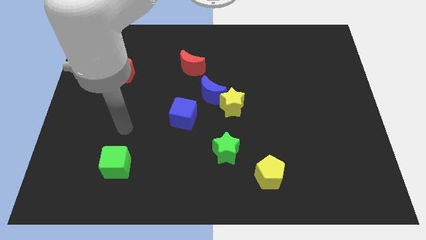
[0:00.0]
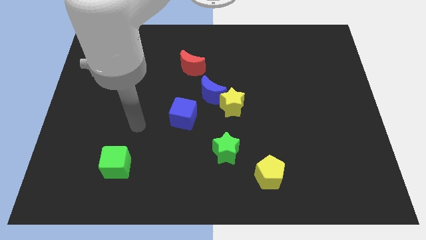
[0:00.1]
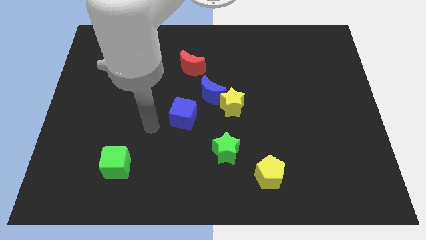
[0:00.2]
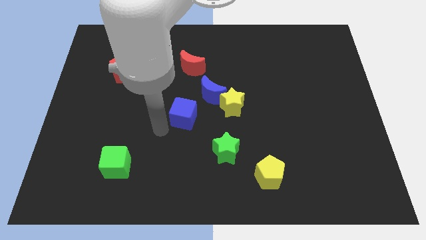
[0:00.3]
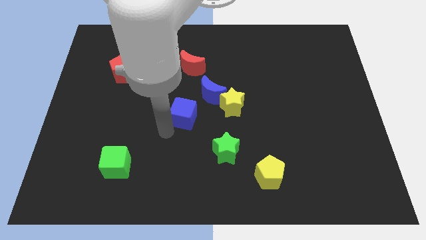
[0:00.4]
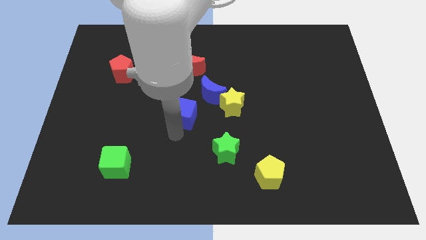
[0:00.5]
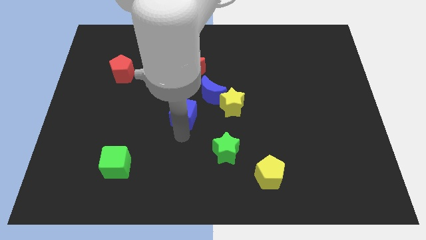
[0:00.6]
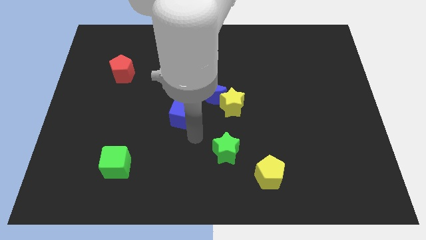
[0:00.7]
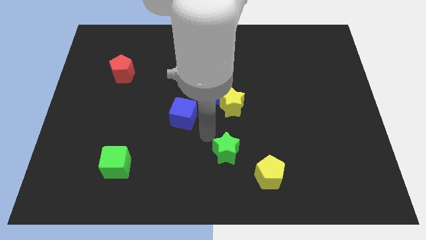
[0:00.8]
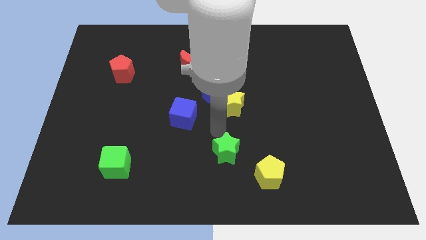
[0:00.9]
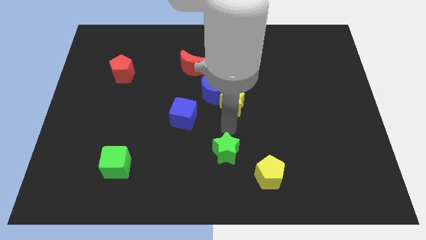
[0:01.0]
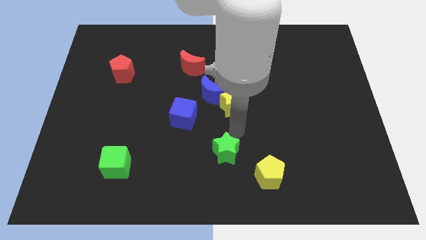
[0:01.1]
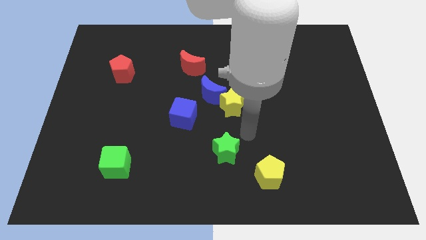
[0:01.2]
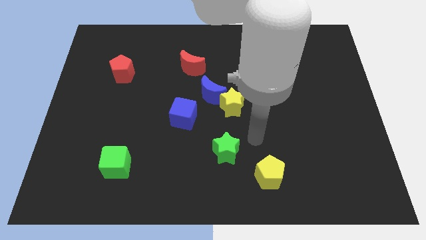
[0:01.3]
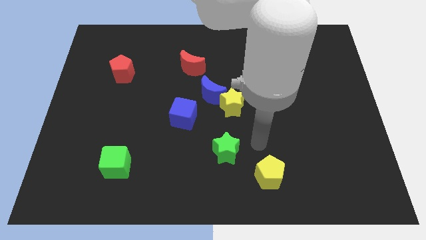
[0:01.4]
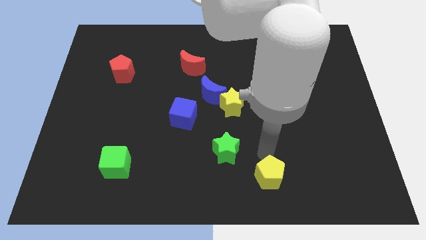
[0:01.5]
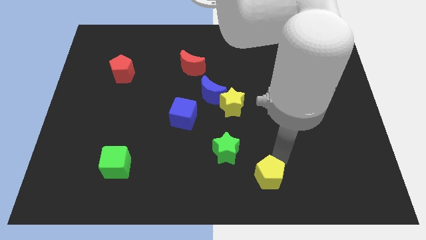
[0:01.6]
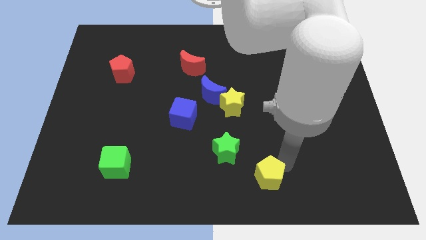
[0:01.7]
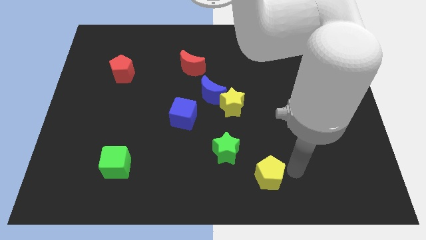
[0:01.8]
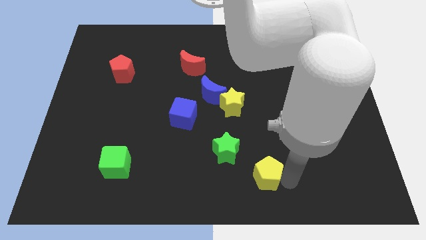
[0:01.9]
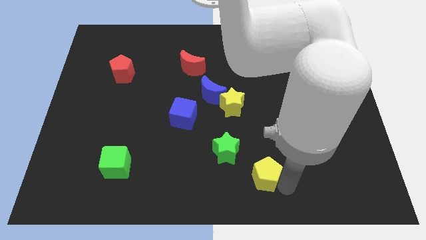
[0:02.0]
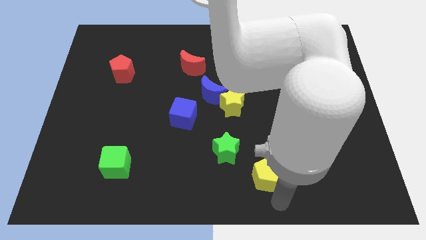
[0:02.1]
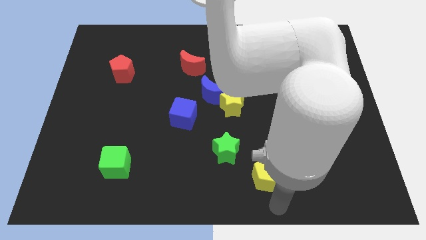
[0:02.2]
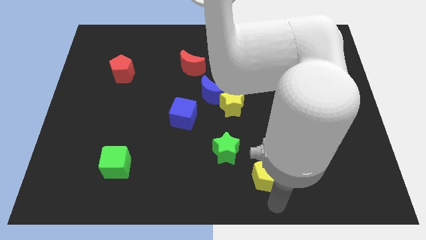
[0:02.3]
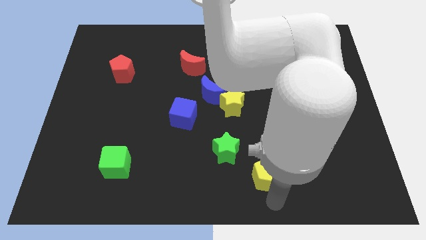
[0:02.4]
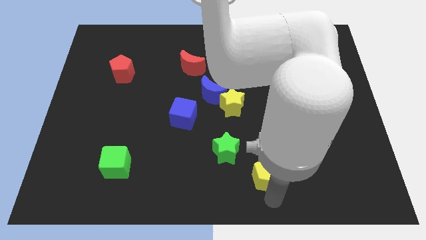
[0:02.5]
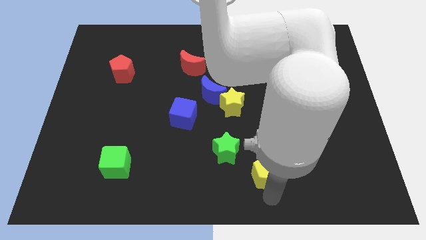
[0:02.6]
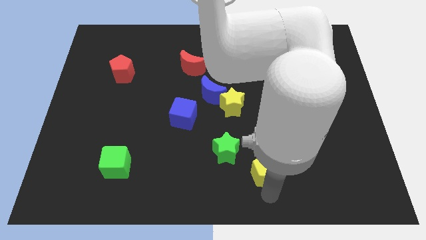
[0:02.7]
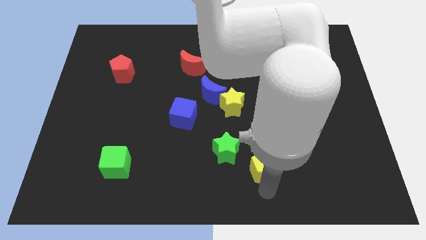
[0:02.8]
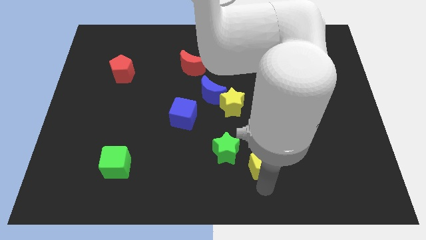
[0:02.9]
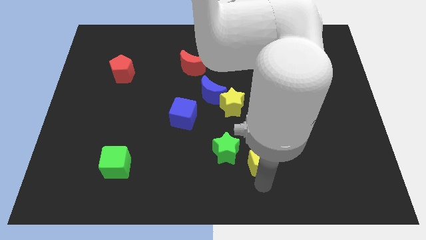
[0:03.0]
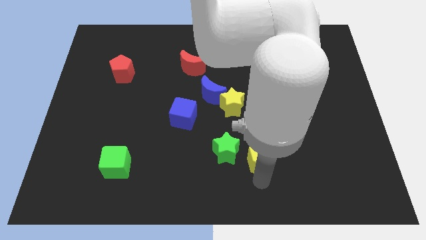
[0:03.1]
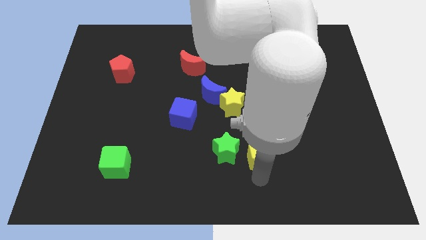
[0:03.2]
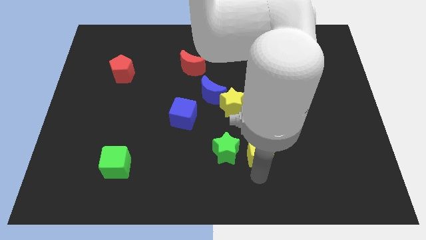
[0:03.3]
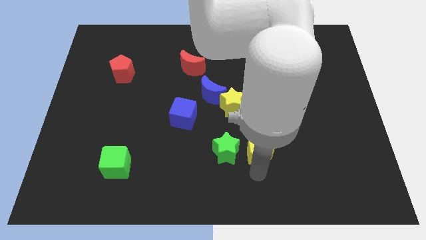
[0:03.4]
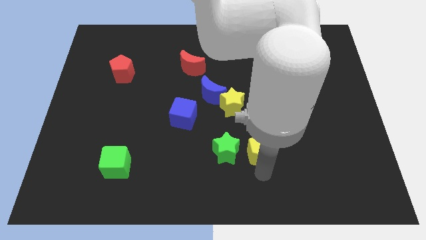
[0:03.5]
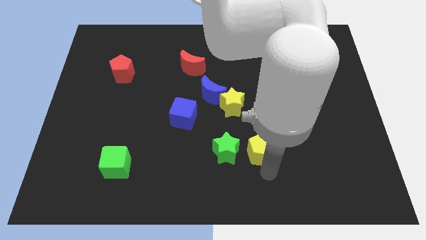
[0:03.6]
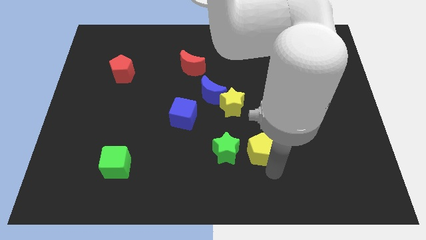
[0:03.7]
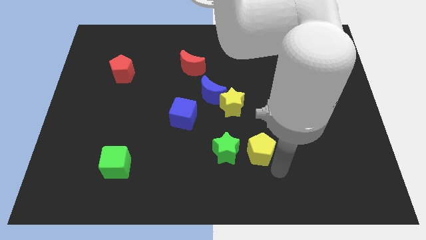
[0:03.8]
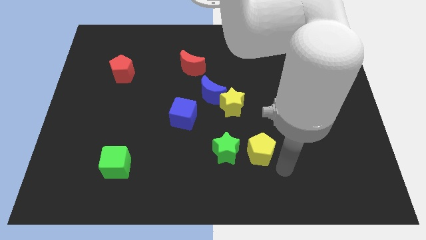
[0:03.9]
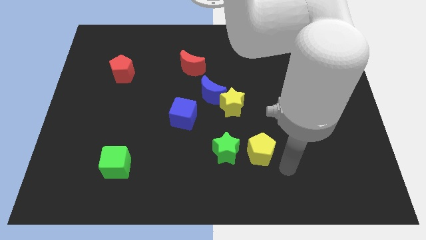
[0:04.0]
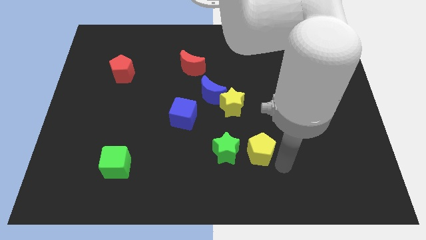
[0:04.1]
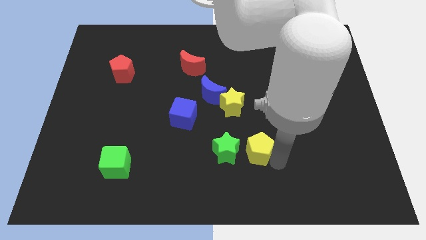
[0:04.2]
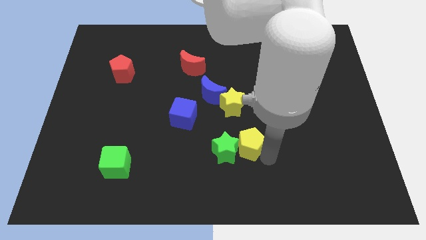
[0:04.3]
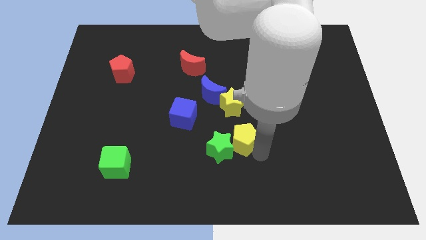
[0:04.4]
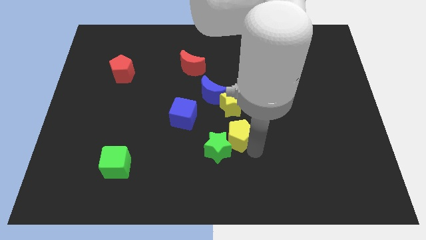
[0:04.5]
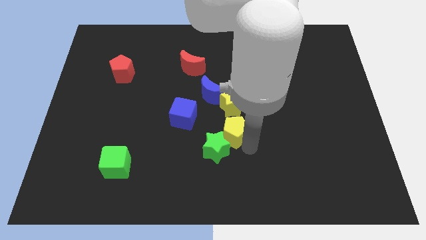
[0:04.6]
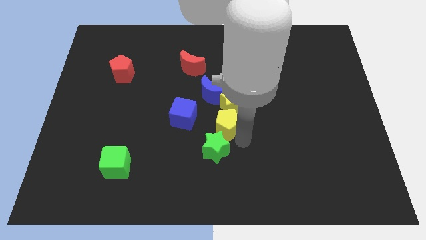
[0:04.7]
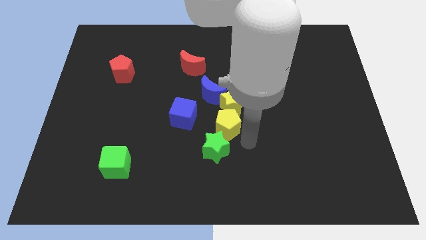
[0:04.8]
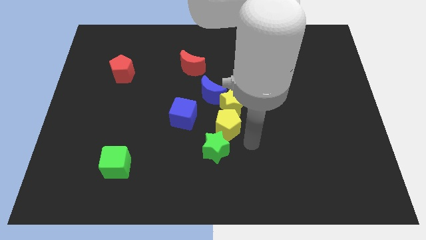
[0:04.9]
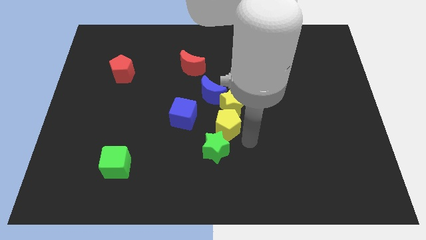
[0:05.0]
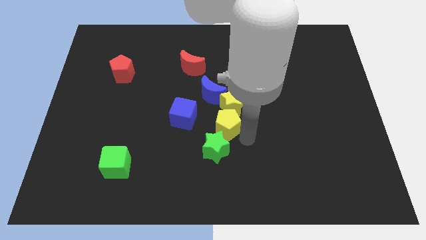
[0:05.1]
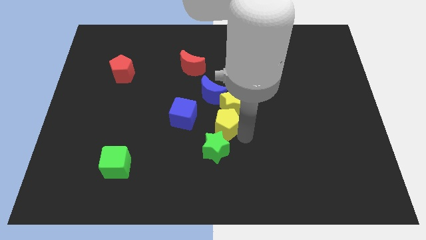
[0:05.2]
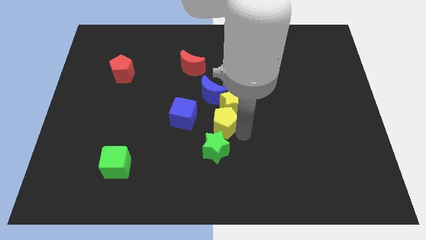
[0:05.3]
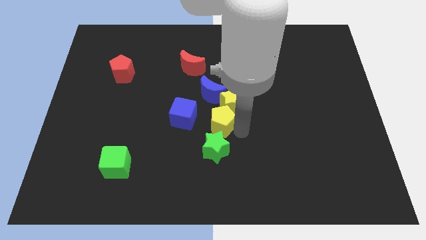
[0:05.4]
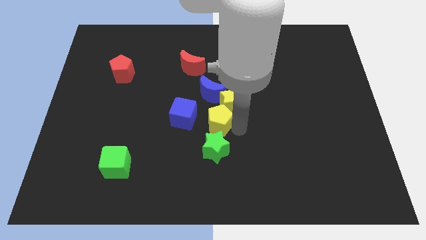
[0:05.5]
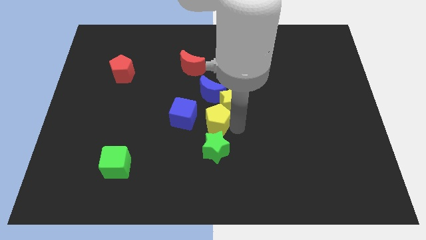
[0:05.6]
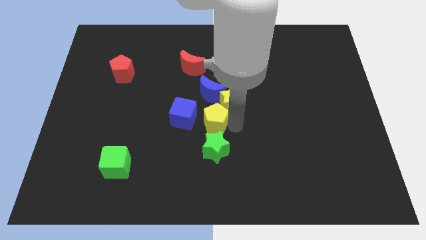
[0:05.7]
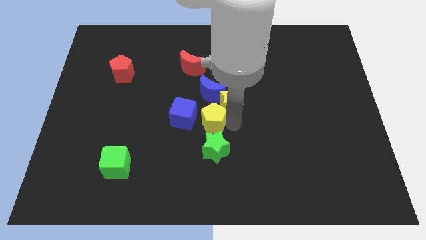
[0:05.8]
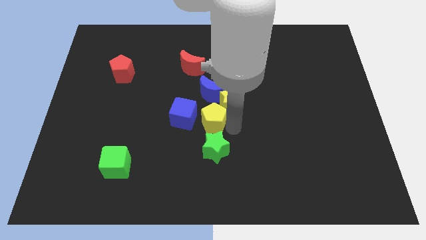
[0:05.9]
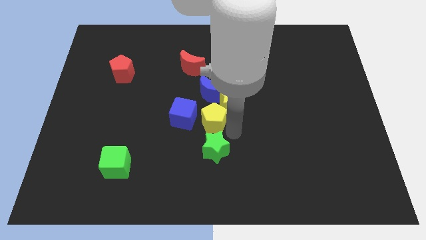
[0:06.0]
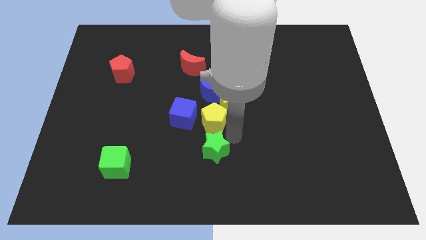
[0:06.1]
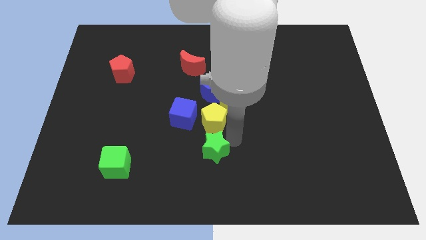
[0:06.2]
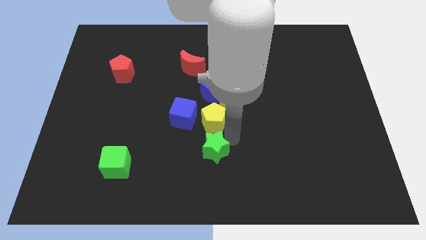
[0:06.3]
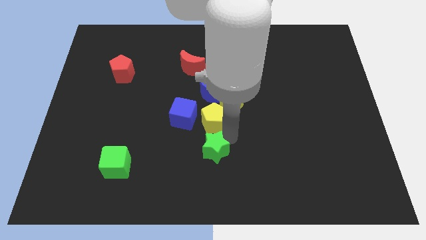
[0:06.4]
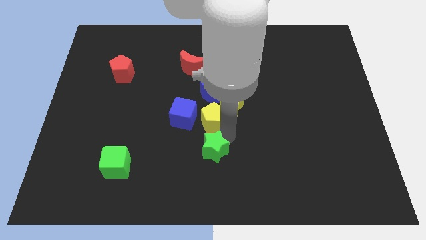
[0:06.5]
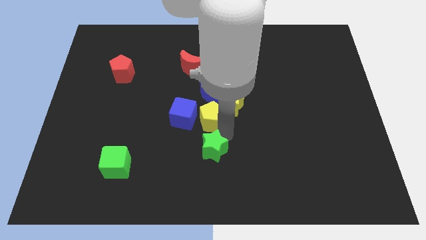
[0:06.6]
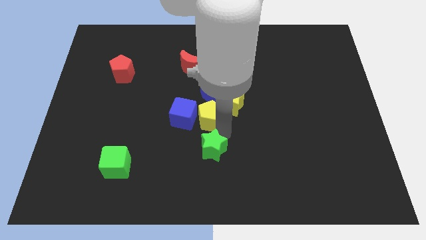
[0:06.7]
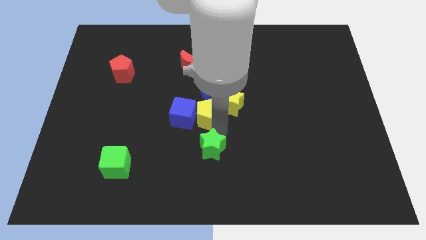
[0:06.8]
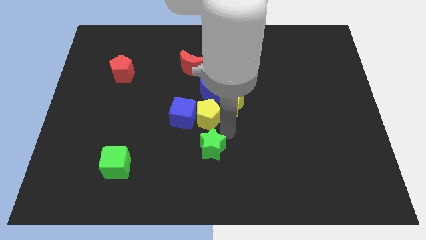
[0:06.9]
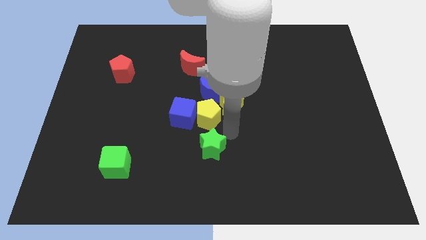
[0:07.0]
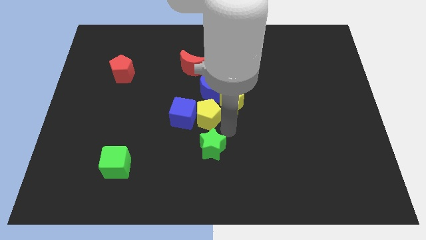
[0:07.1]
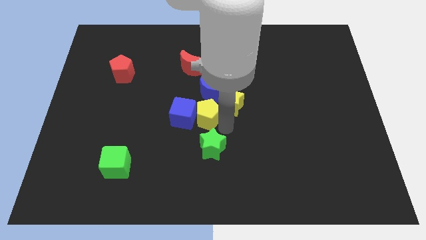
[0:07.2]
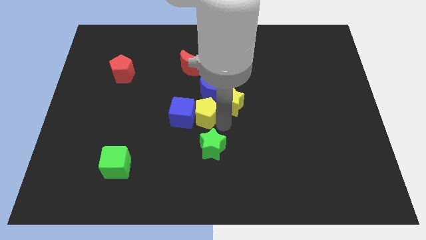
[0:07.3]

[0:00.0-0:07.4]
slide the yellow pentagon diagonally upwards and left

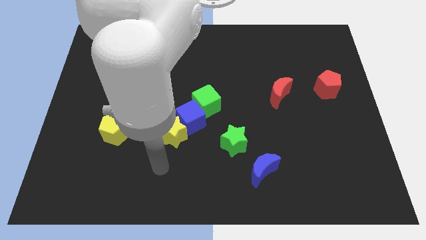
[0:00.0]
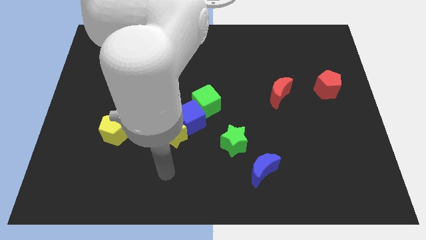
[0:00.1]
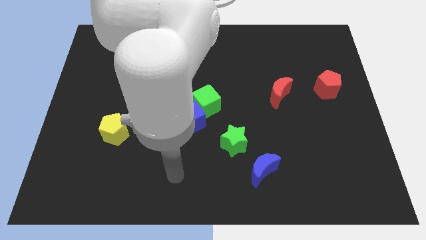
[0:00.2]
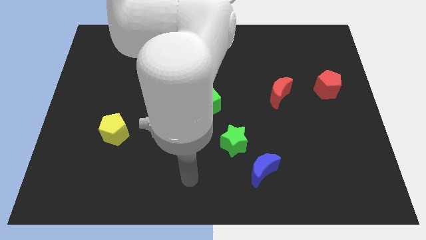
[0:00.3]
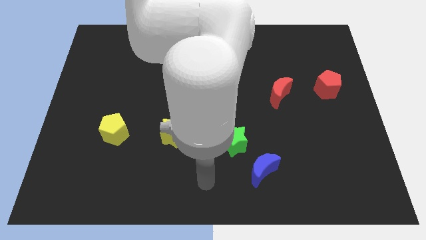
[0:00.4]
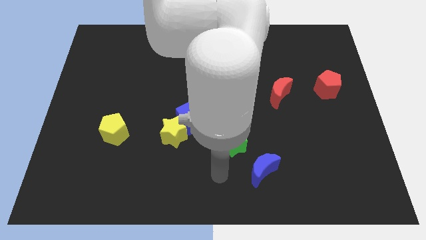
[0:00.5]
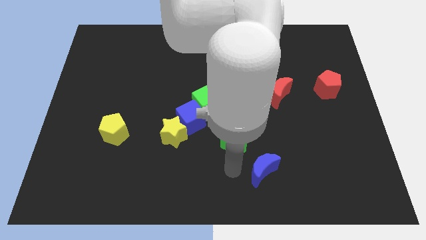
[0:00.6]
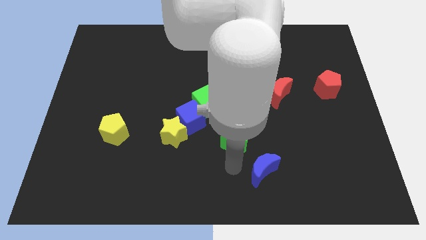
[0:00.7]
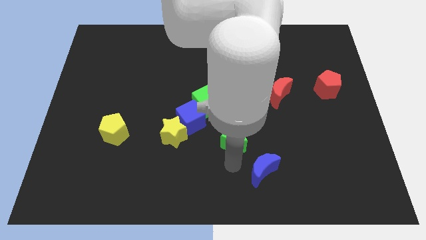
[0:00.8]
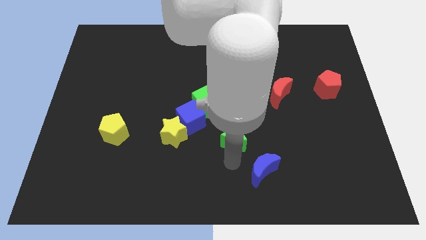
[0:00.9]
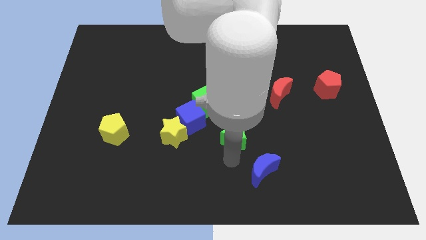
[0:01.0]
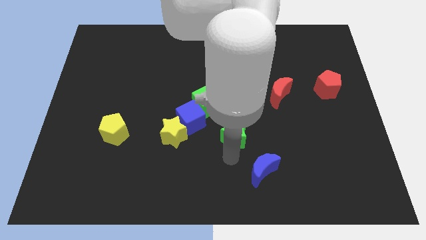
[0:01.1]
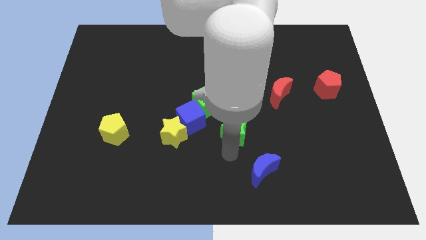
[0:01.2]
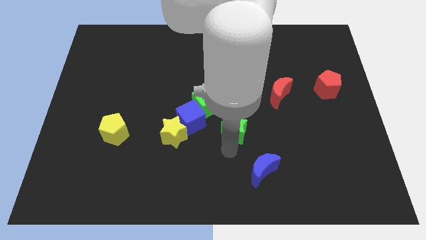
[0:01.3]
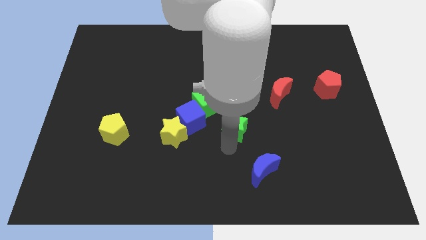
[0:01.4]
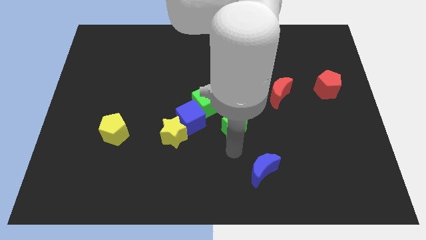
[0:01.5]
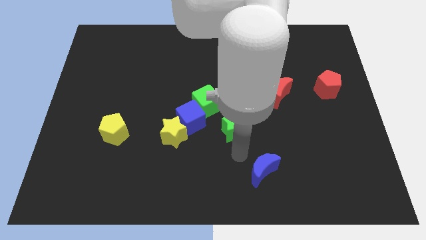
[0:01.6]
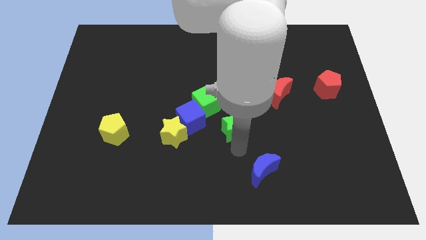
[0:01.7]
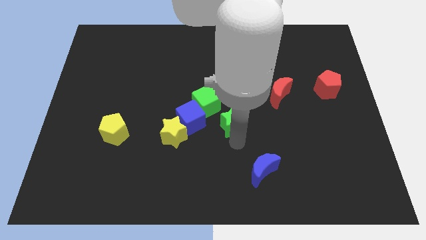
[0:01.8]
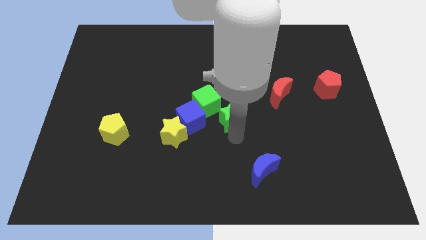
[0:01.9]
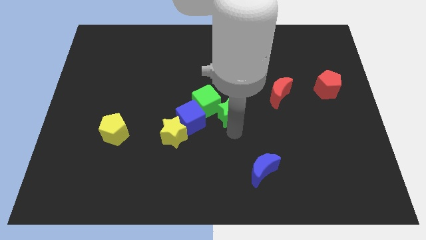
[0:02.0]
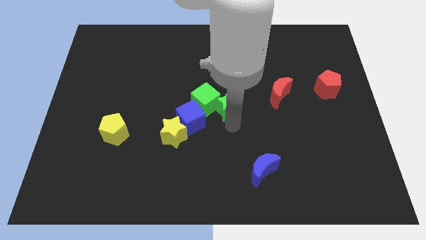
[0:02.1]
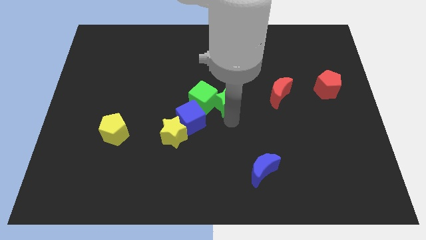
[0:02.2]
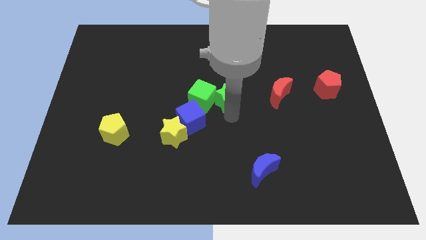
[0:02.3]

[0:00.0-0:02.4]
slide the green star upwards and then left a bit
